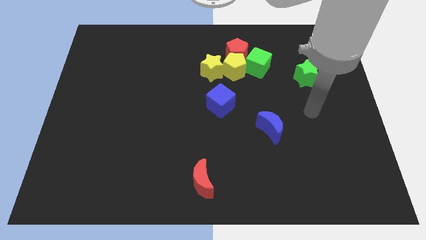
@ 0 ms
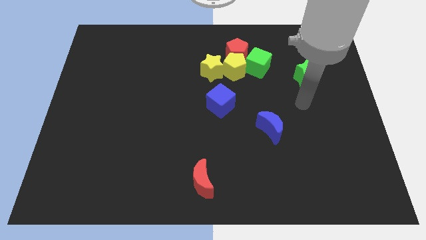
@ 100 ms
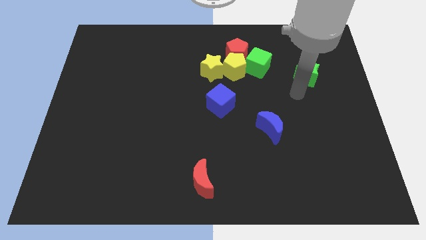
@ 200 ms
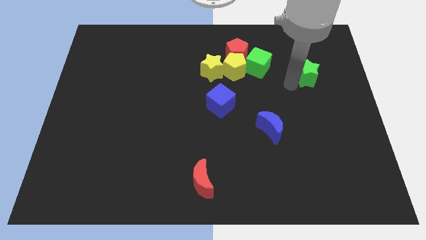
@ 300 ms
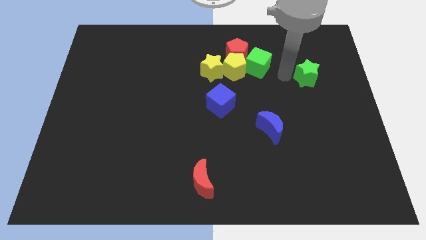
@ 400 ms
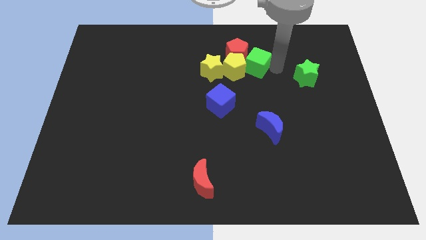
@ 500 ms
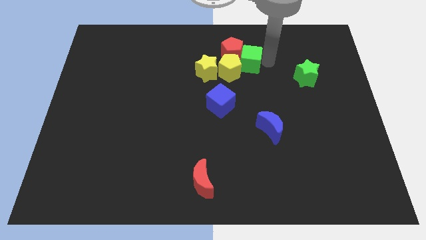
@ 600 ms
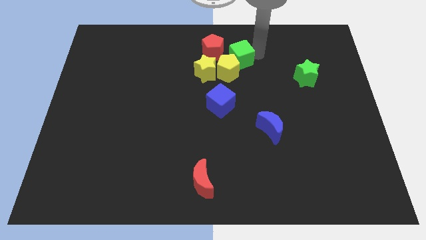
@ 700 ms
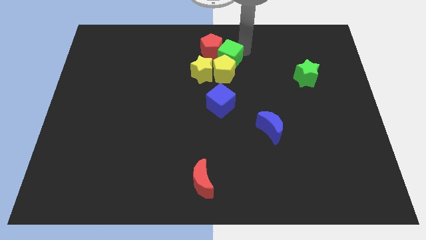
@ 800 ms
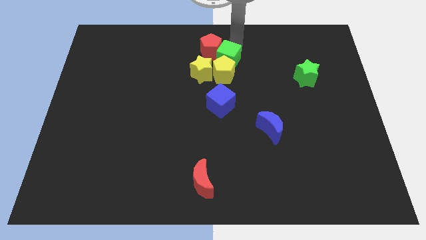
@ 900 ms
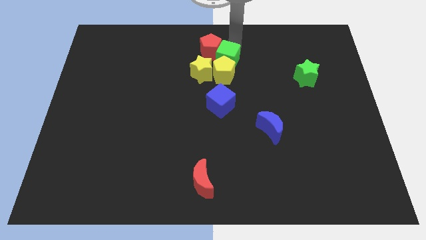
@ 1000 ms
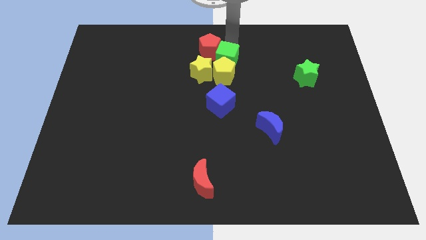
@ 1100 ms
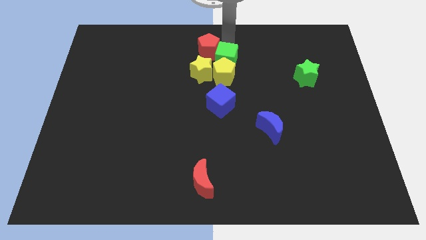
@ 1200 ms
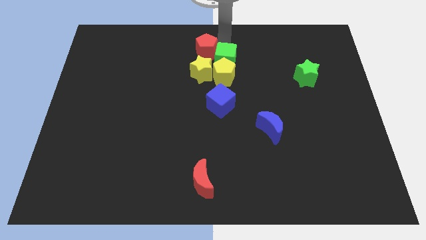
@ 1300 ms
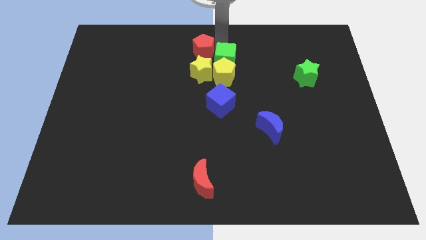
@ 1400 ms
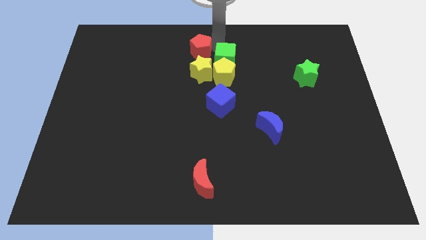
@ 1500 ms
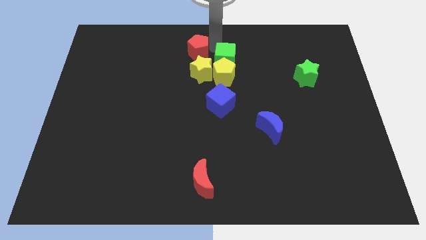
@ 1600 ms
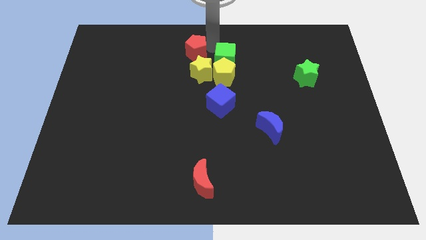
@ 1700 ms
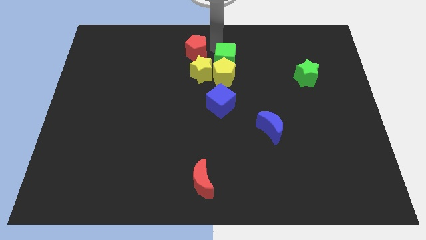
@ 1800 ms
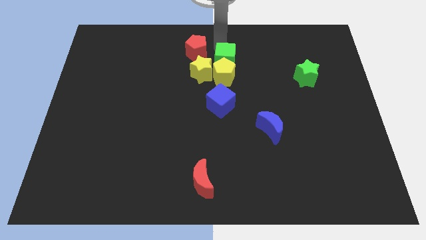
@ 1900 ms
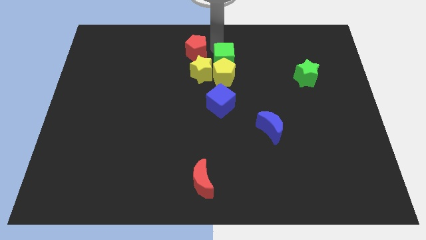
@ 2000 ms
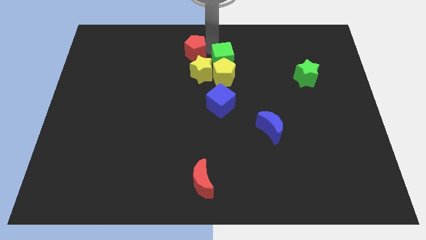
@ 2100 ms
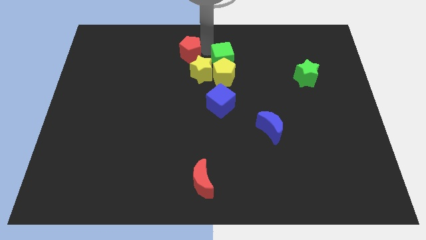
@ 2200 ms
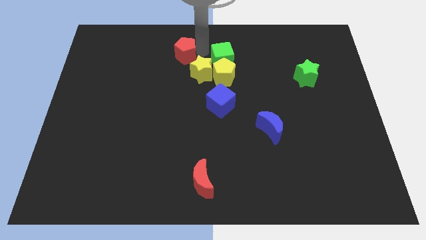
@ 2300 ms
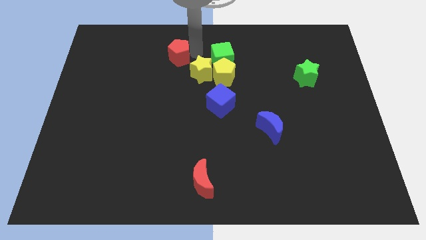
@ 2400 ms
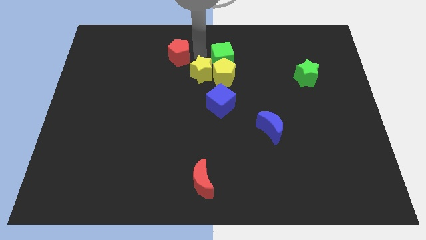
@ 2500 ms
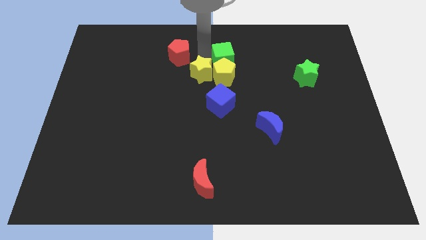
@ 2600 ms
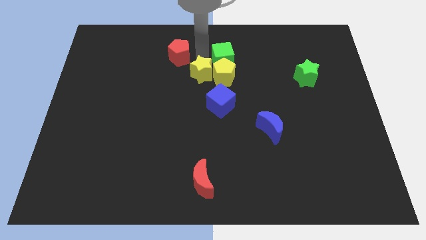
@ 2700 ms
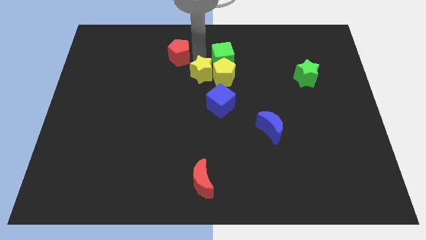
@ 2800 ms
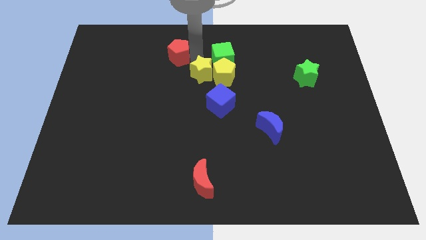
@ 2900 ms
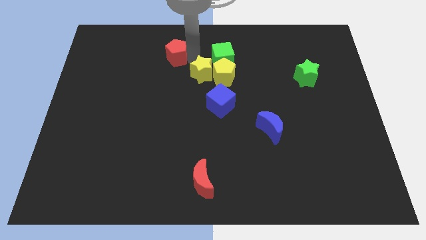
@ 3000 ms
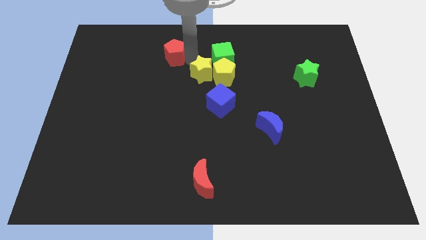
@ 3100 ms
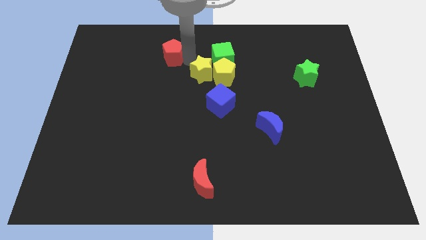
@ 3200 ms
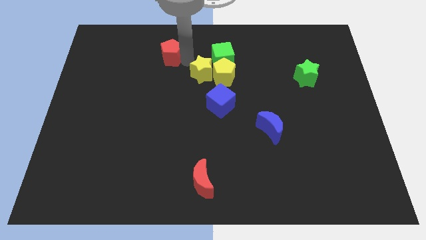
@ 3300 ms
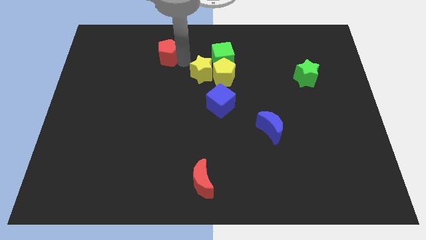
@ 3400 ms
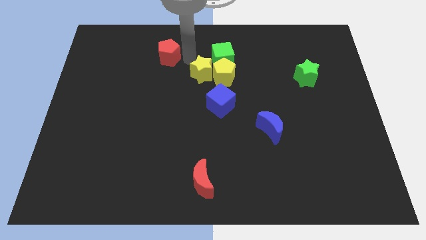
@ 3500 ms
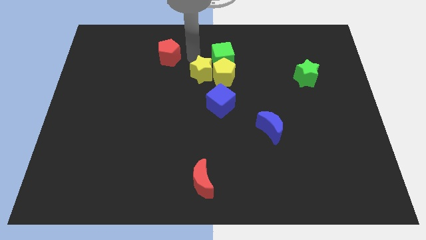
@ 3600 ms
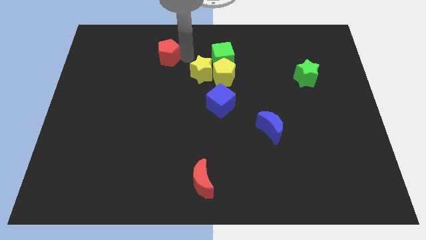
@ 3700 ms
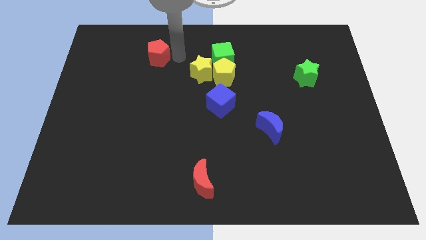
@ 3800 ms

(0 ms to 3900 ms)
move the red pentagon left

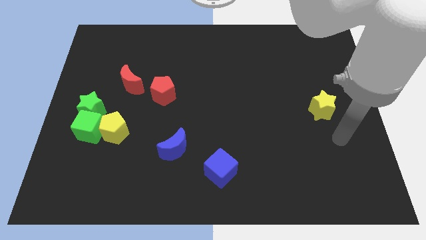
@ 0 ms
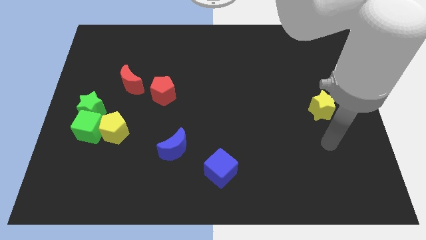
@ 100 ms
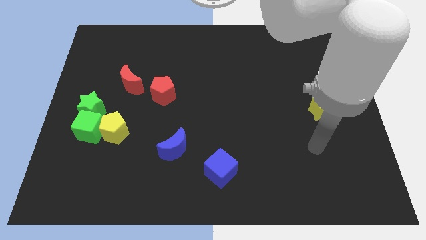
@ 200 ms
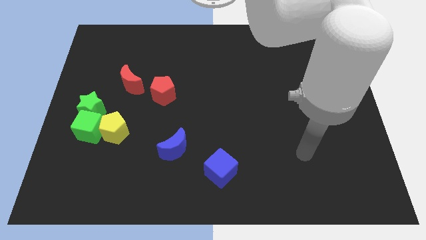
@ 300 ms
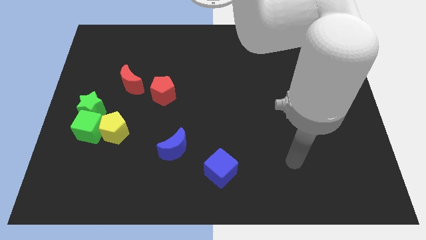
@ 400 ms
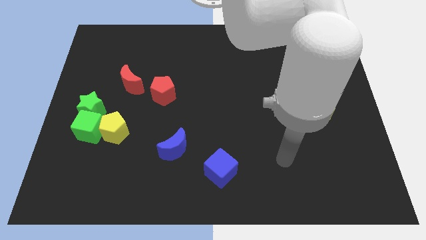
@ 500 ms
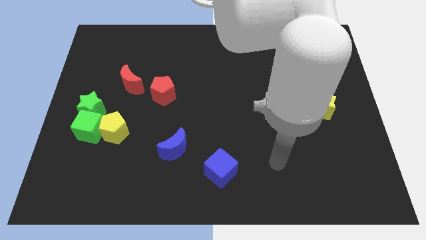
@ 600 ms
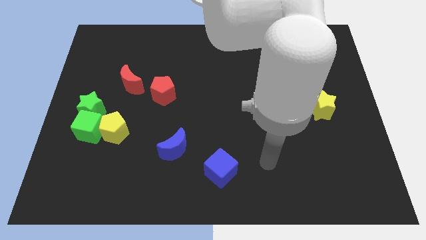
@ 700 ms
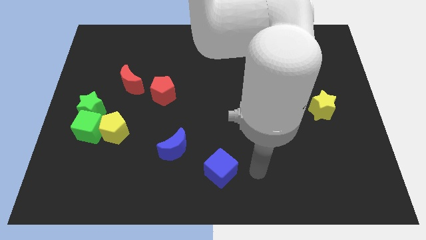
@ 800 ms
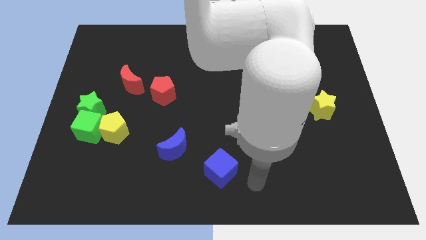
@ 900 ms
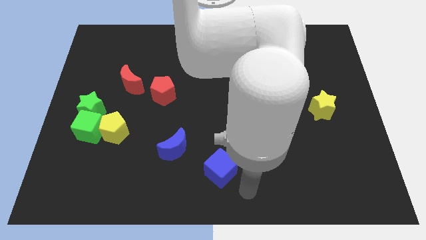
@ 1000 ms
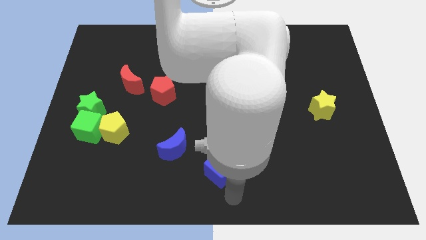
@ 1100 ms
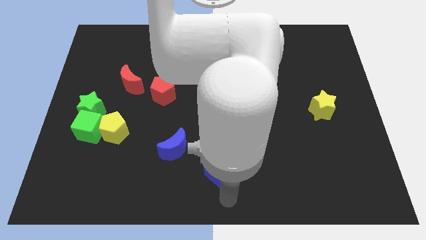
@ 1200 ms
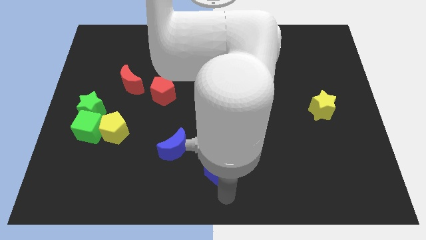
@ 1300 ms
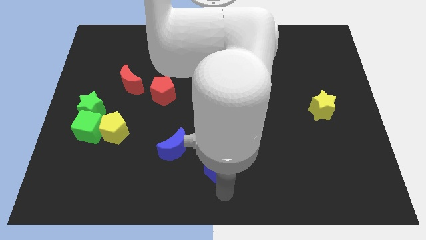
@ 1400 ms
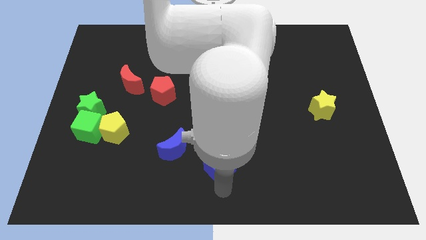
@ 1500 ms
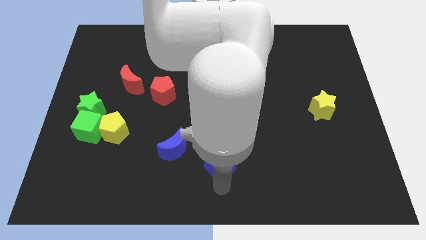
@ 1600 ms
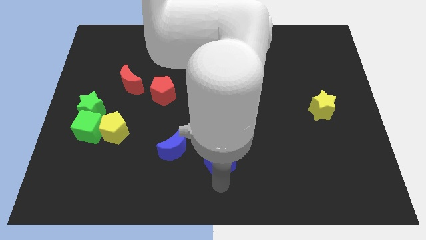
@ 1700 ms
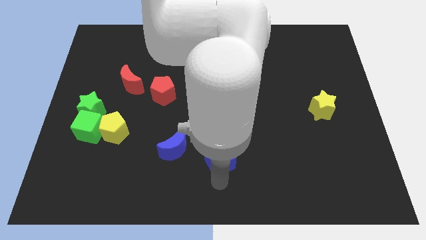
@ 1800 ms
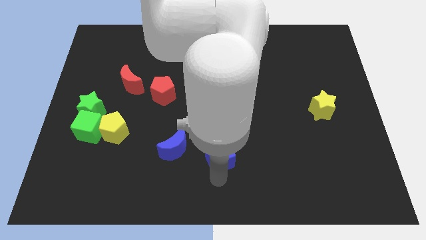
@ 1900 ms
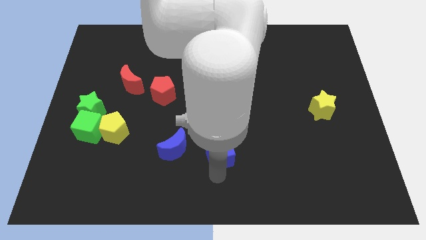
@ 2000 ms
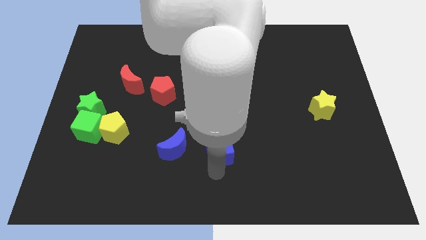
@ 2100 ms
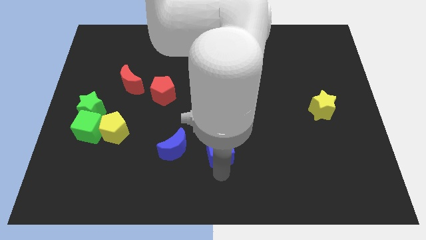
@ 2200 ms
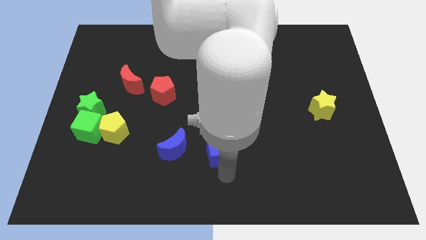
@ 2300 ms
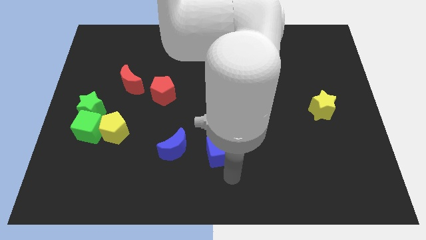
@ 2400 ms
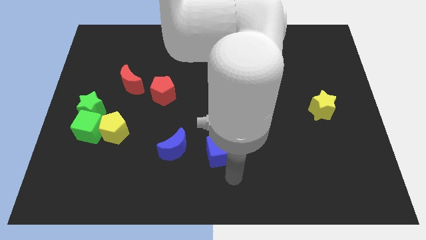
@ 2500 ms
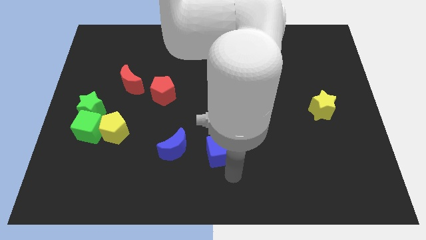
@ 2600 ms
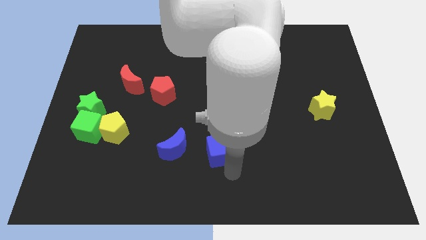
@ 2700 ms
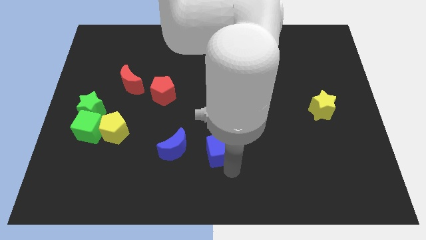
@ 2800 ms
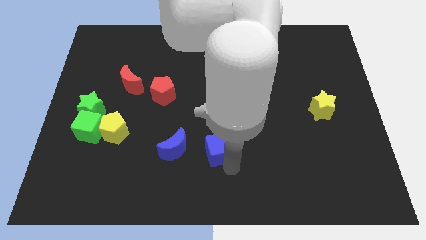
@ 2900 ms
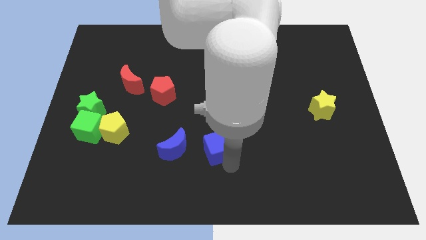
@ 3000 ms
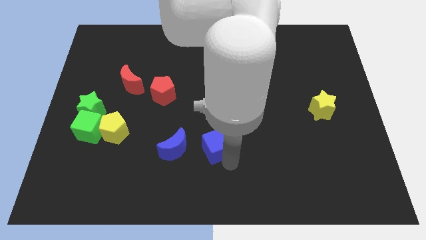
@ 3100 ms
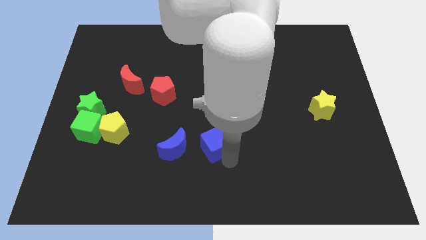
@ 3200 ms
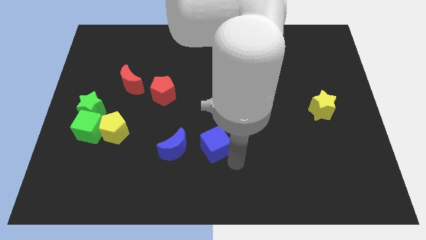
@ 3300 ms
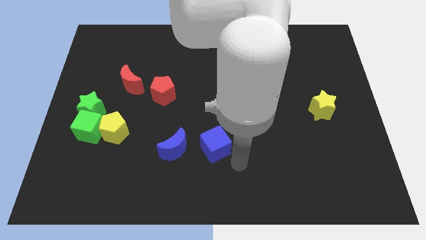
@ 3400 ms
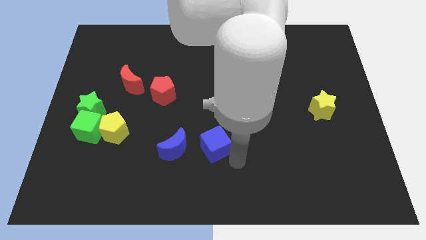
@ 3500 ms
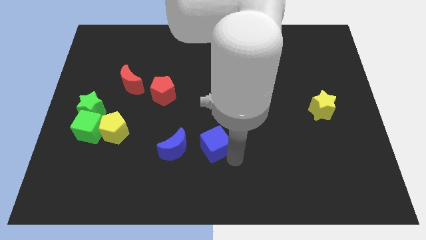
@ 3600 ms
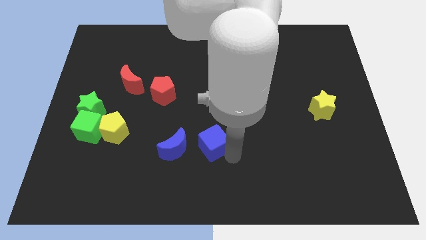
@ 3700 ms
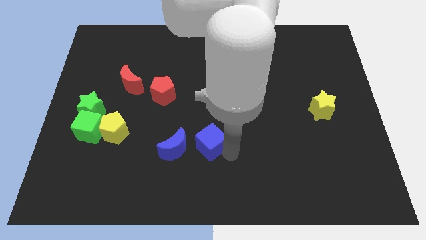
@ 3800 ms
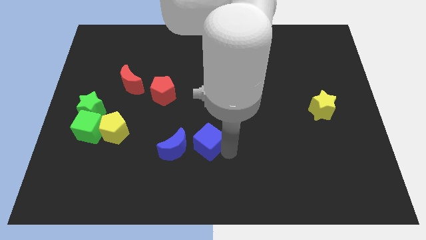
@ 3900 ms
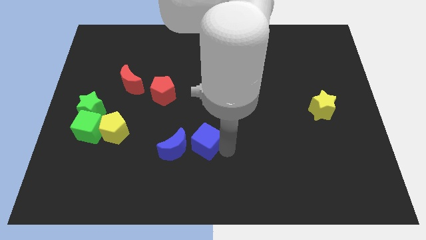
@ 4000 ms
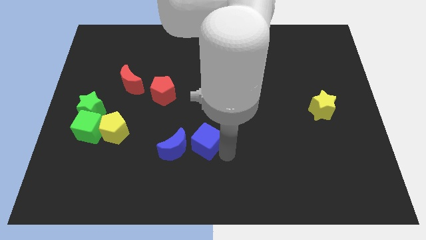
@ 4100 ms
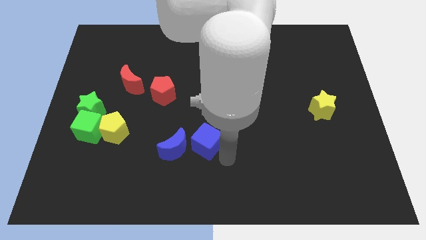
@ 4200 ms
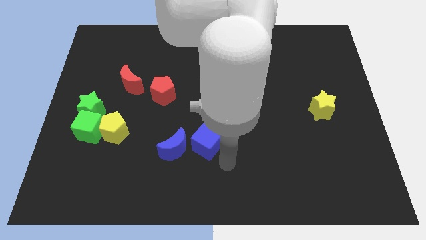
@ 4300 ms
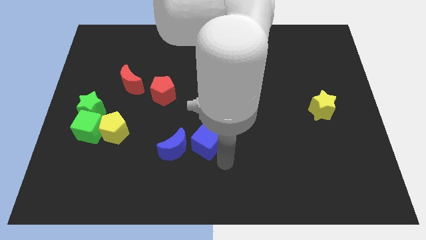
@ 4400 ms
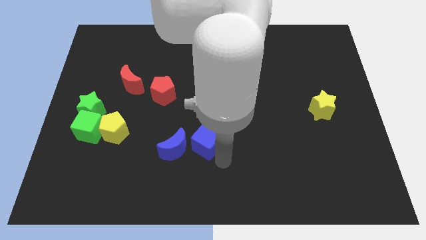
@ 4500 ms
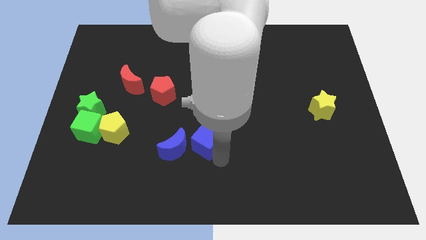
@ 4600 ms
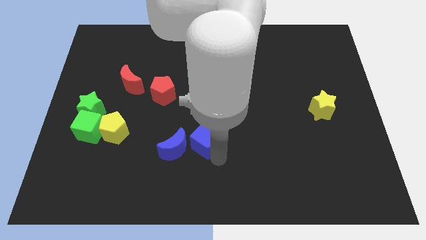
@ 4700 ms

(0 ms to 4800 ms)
push the blue cube somewhat up and left
